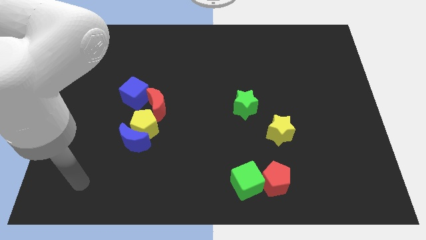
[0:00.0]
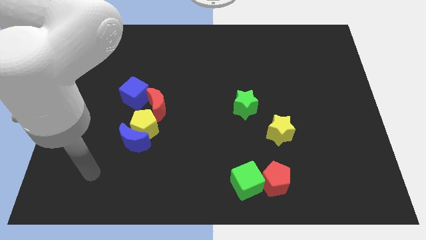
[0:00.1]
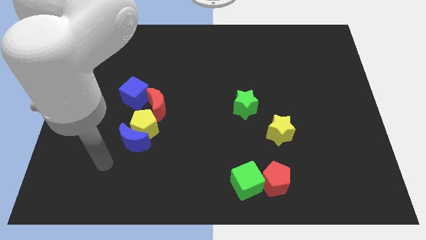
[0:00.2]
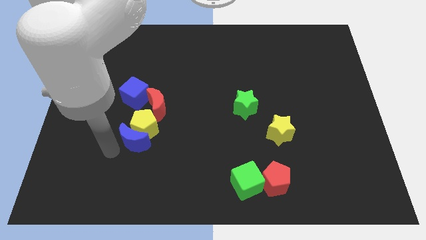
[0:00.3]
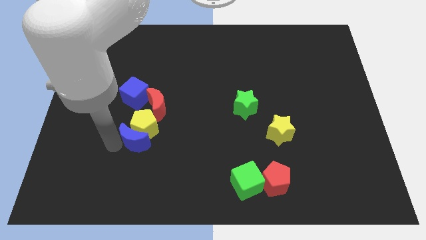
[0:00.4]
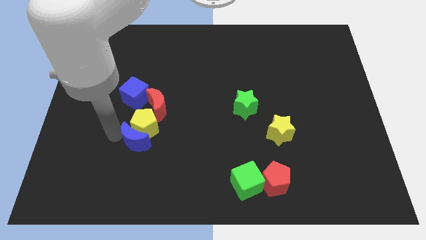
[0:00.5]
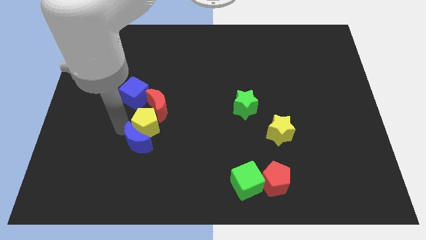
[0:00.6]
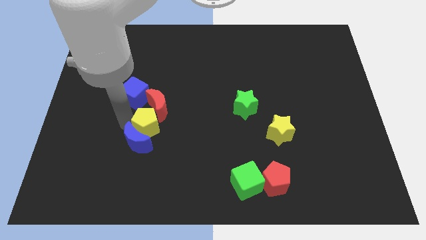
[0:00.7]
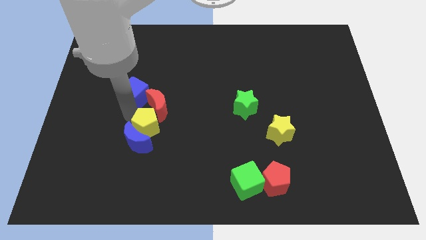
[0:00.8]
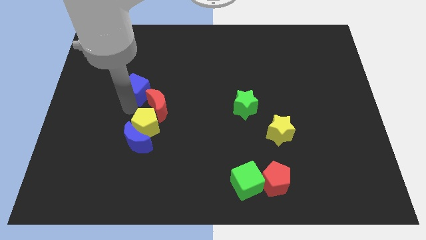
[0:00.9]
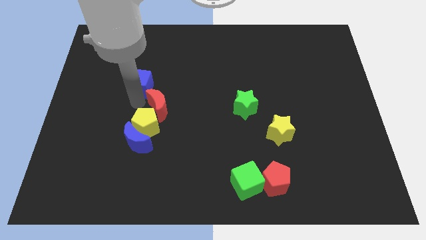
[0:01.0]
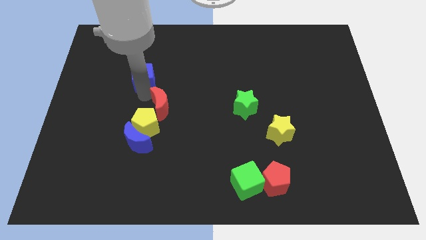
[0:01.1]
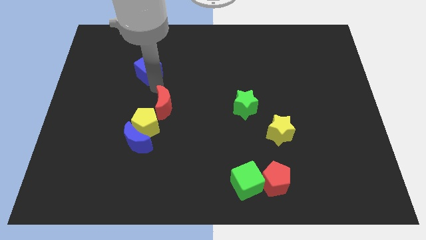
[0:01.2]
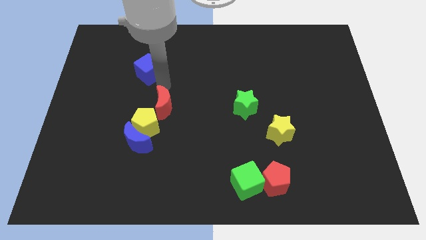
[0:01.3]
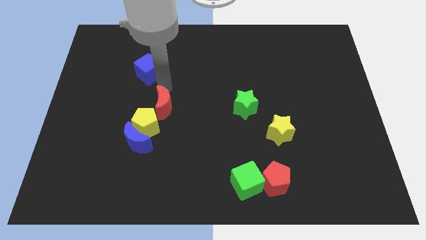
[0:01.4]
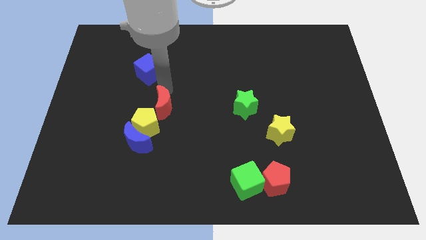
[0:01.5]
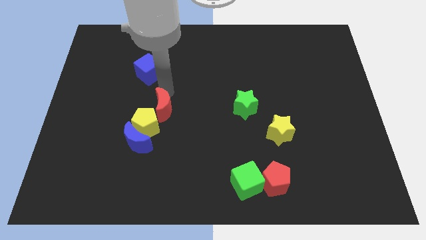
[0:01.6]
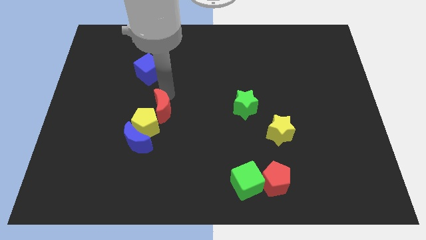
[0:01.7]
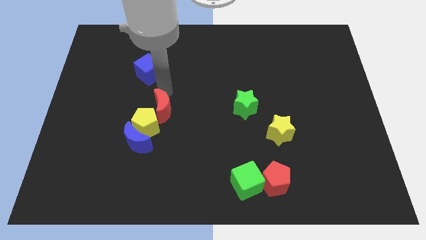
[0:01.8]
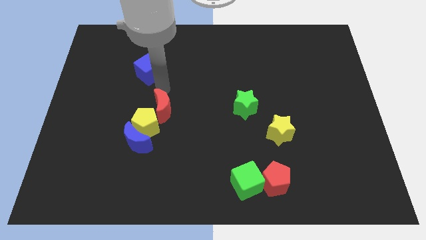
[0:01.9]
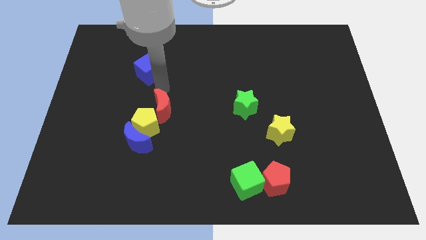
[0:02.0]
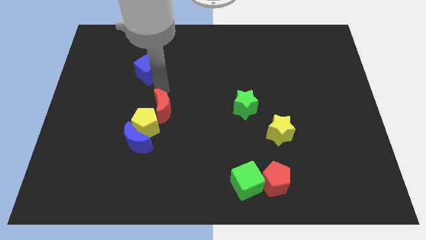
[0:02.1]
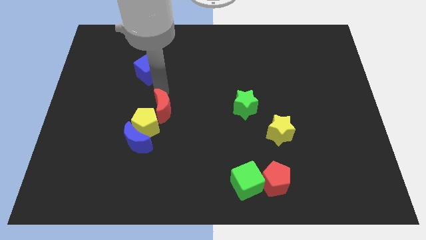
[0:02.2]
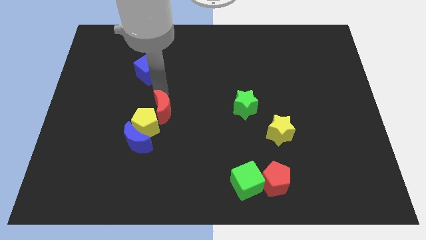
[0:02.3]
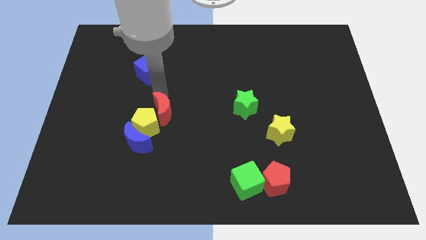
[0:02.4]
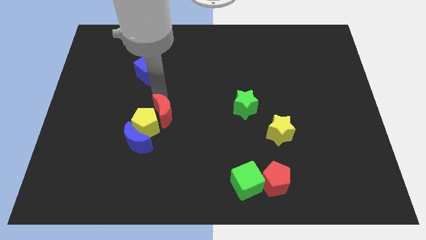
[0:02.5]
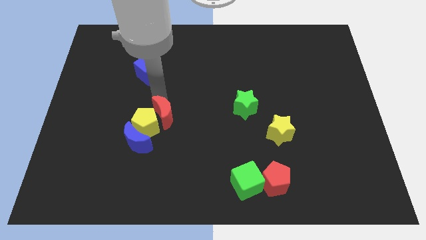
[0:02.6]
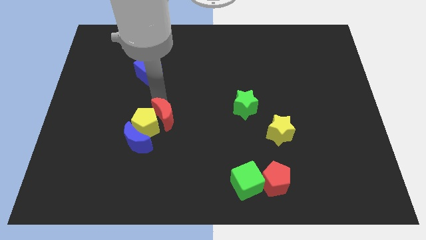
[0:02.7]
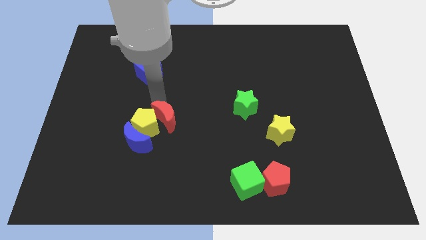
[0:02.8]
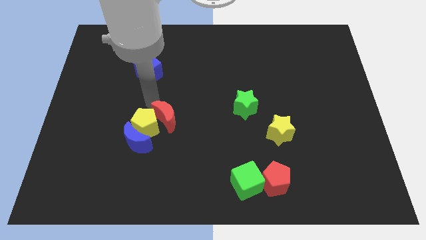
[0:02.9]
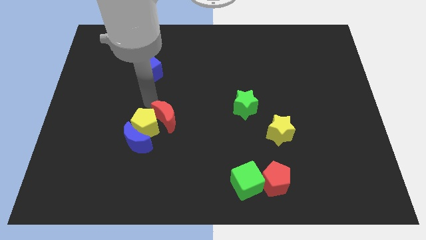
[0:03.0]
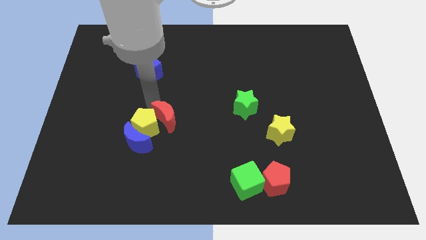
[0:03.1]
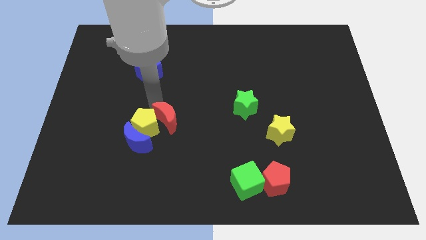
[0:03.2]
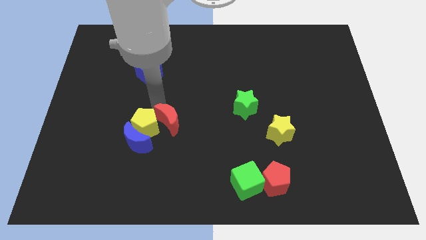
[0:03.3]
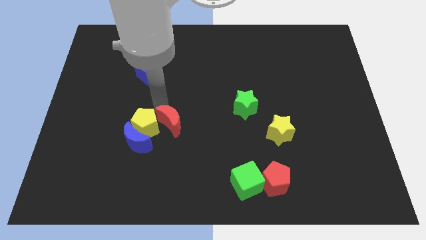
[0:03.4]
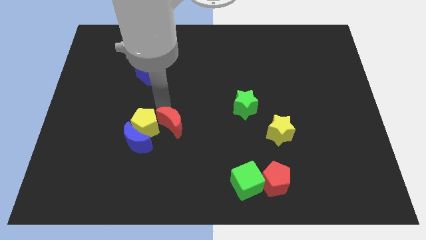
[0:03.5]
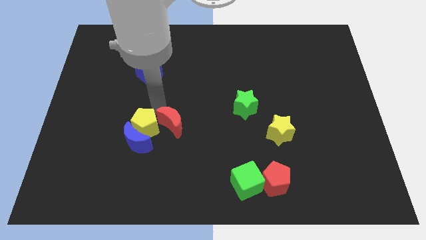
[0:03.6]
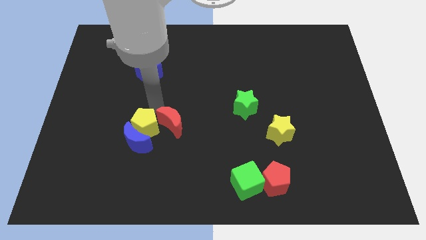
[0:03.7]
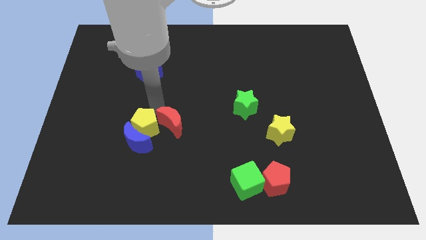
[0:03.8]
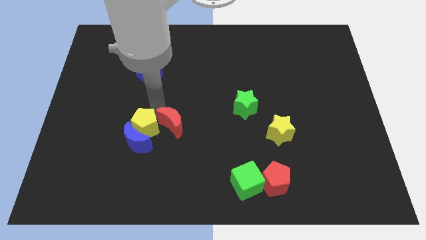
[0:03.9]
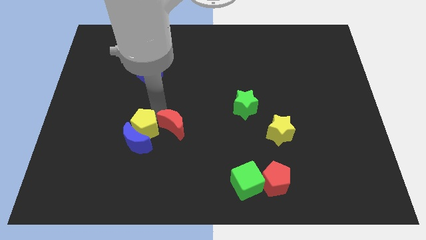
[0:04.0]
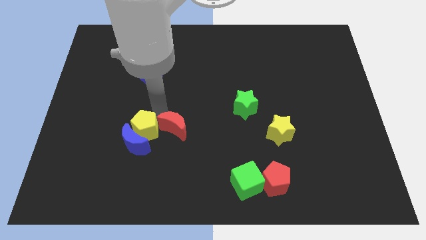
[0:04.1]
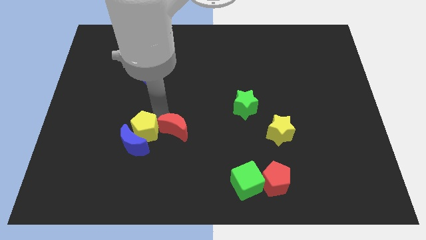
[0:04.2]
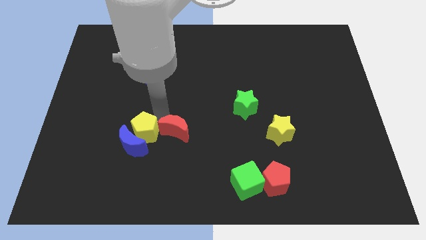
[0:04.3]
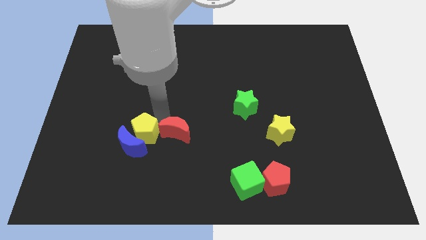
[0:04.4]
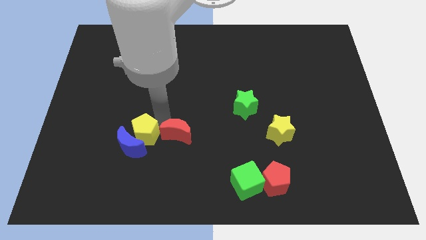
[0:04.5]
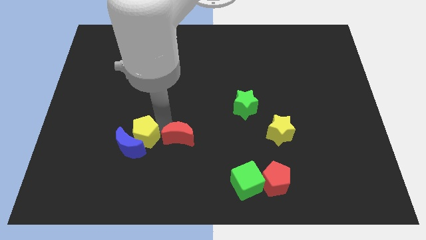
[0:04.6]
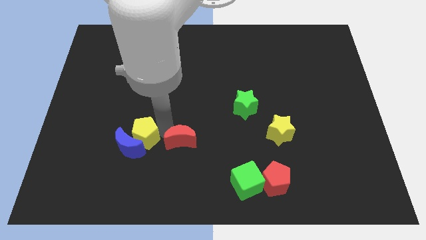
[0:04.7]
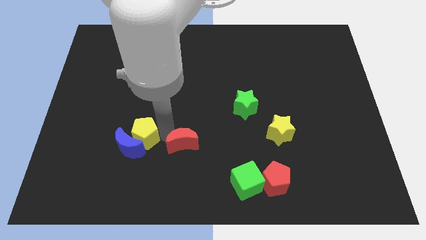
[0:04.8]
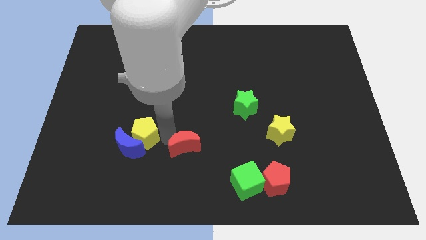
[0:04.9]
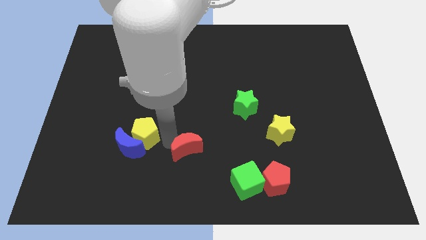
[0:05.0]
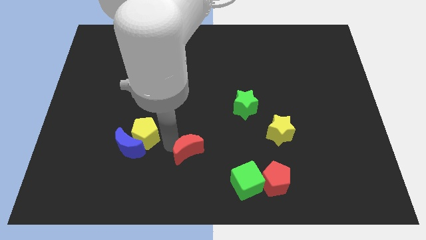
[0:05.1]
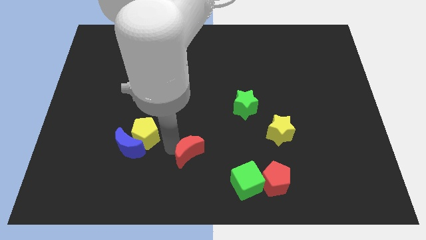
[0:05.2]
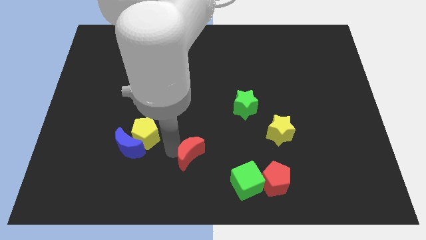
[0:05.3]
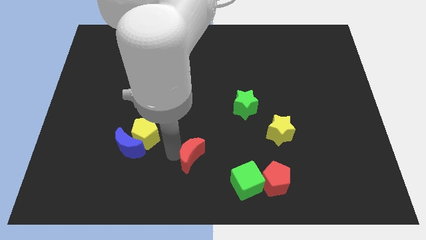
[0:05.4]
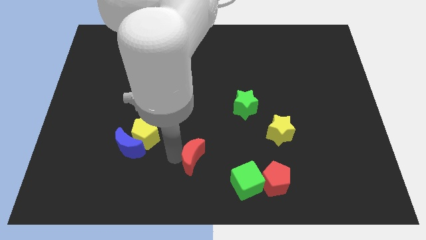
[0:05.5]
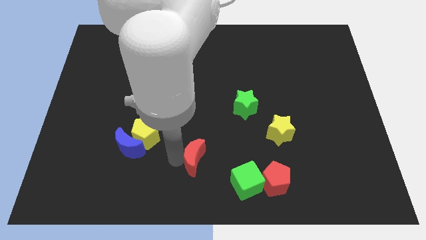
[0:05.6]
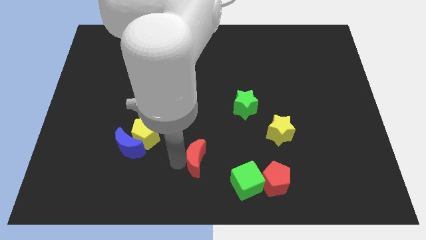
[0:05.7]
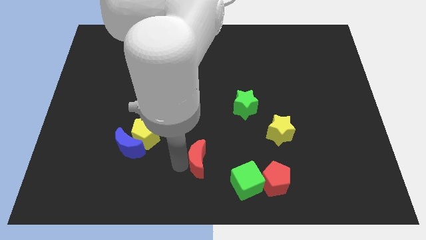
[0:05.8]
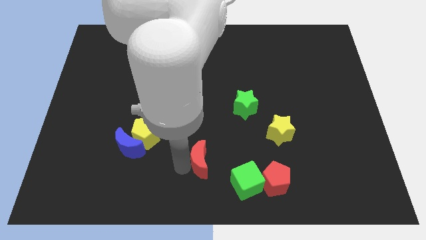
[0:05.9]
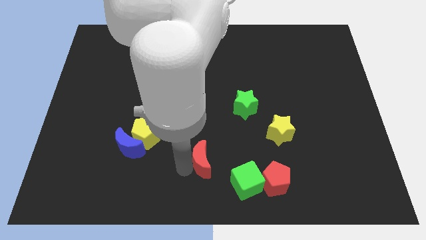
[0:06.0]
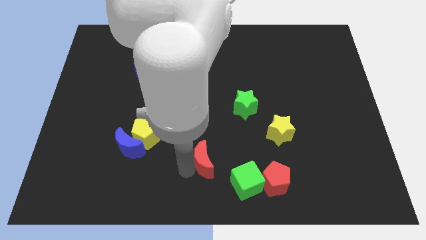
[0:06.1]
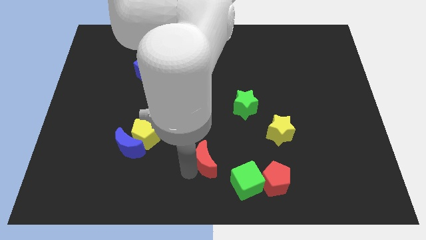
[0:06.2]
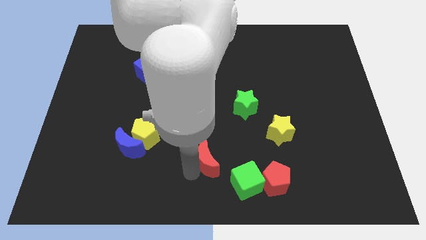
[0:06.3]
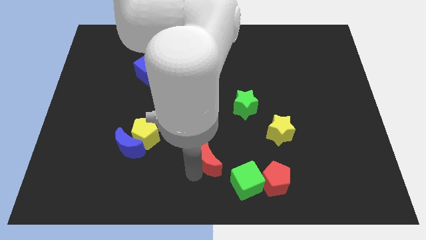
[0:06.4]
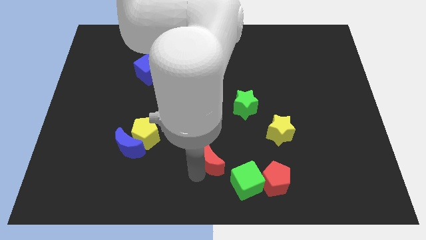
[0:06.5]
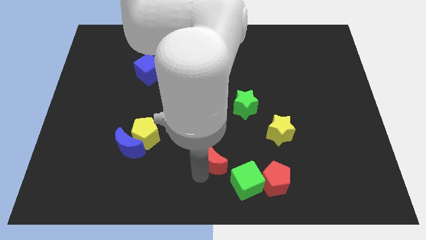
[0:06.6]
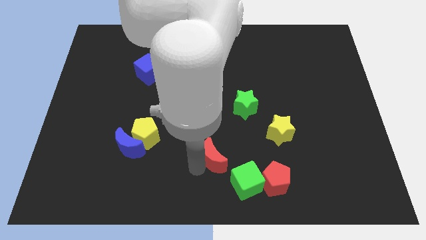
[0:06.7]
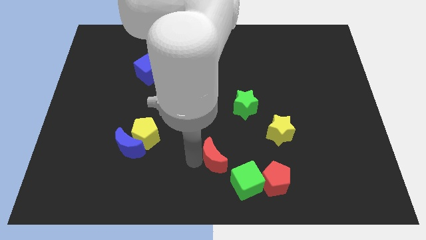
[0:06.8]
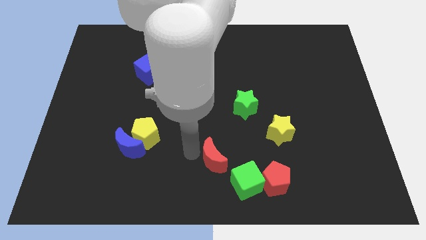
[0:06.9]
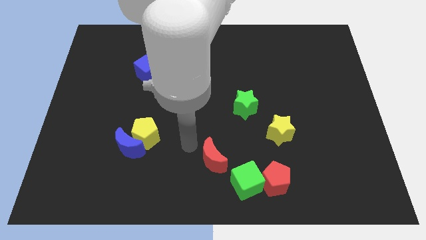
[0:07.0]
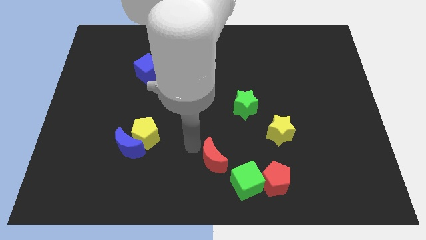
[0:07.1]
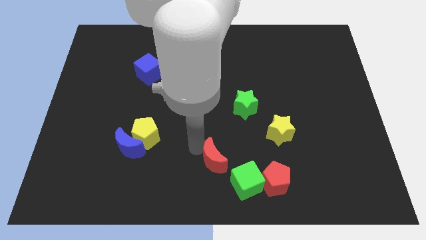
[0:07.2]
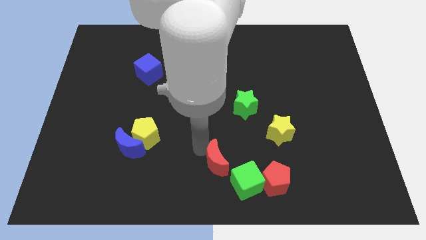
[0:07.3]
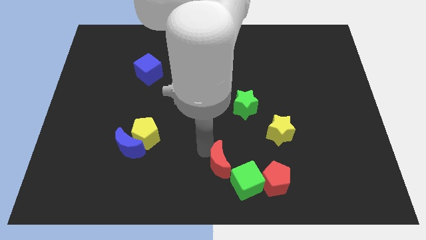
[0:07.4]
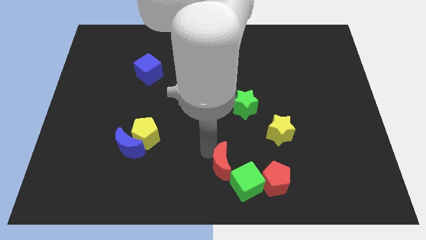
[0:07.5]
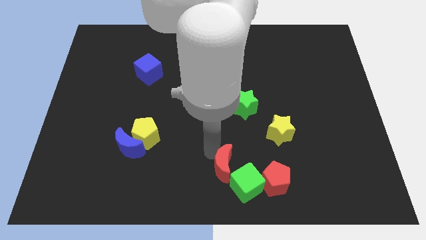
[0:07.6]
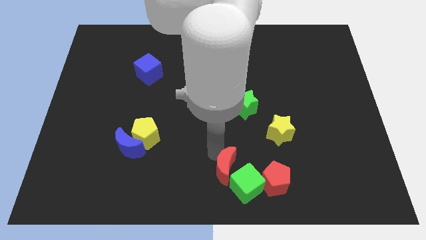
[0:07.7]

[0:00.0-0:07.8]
move the red moon close to the green cube
